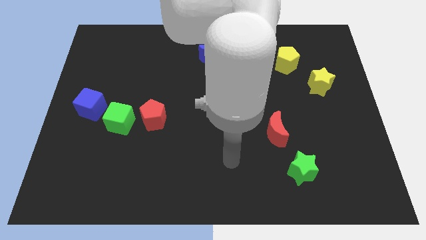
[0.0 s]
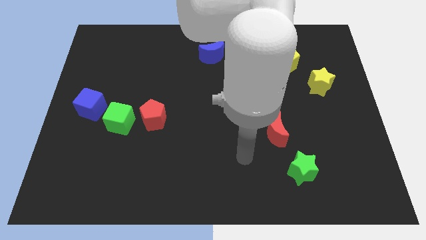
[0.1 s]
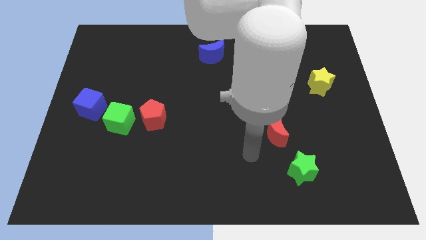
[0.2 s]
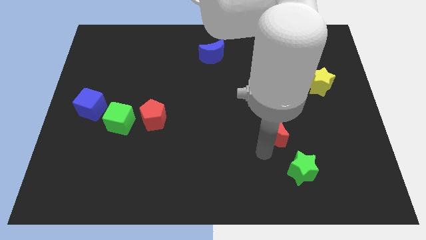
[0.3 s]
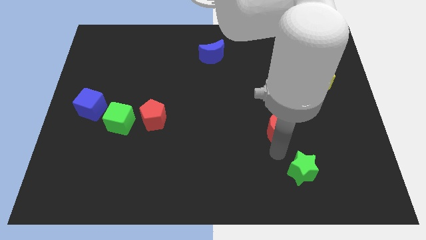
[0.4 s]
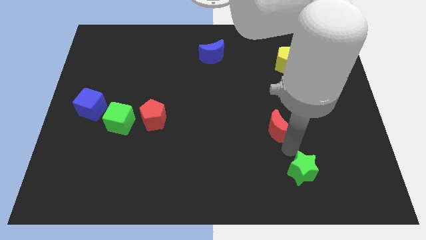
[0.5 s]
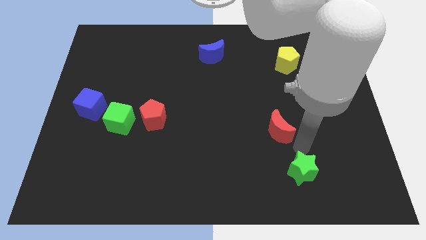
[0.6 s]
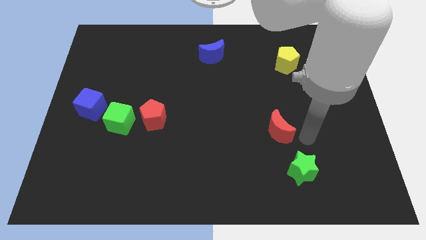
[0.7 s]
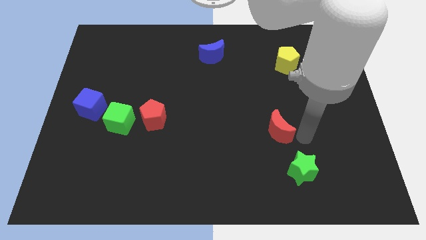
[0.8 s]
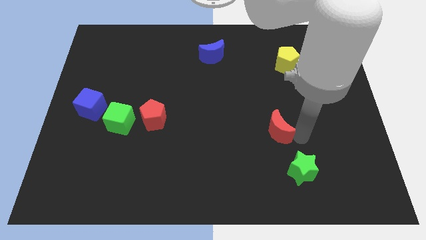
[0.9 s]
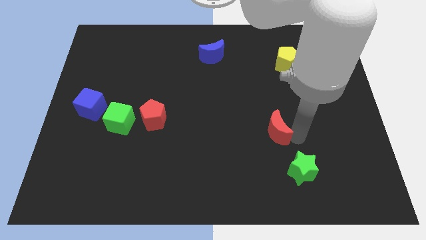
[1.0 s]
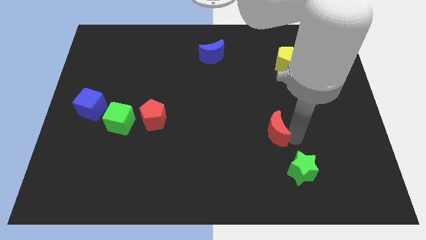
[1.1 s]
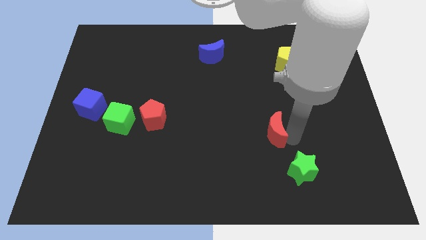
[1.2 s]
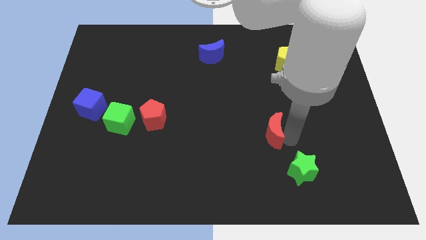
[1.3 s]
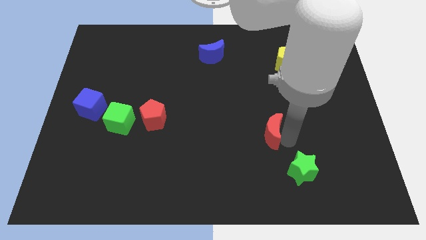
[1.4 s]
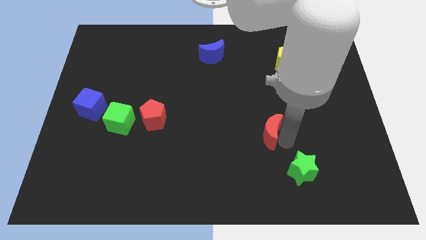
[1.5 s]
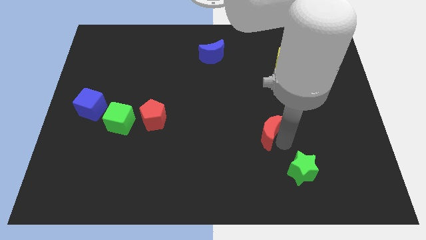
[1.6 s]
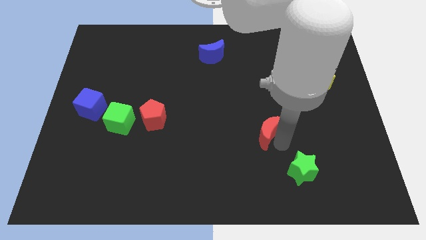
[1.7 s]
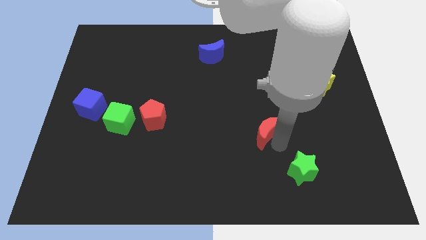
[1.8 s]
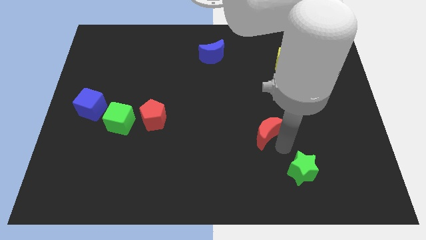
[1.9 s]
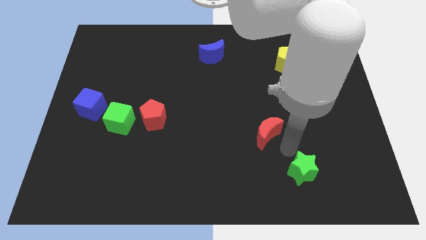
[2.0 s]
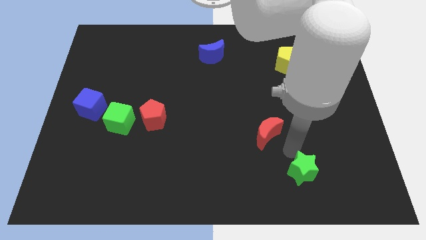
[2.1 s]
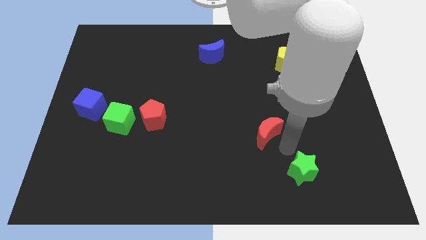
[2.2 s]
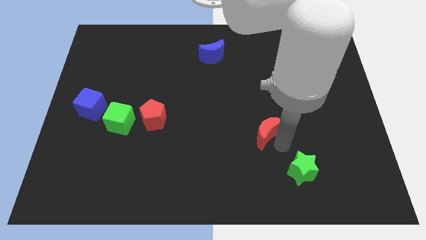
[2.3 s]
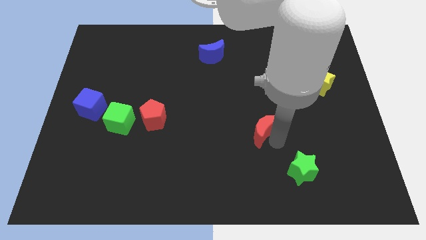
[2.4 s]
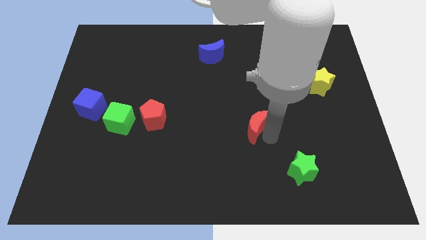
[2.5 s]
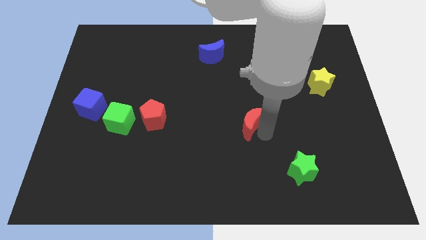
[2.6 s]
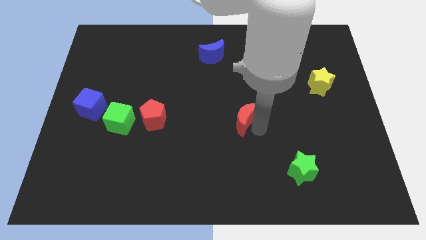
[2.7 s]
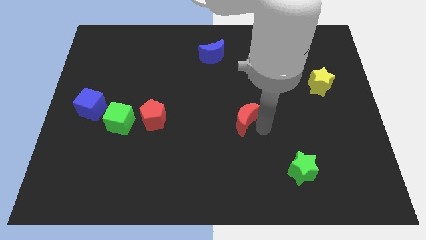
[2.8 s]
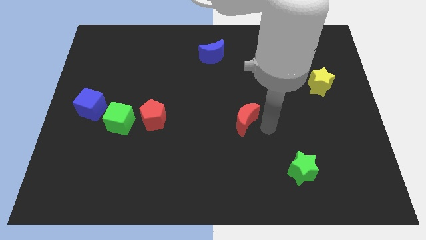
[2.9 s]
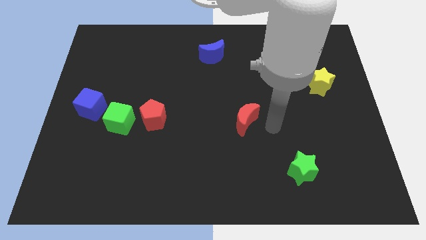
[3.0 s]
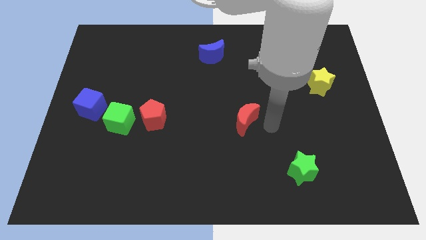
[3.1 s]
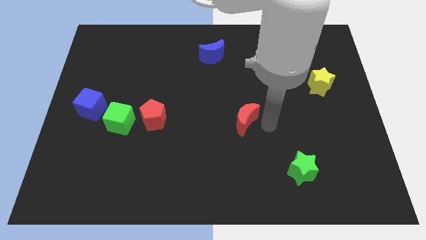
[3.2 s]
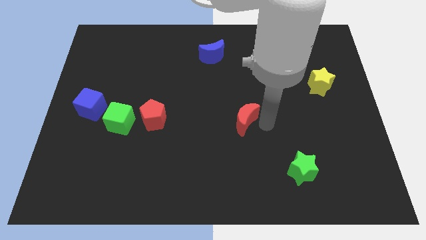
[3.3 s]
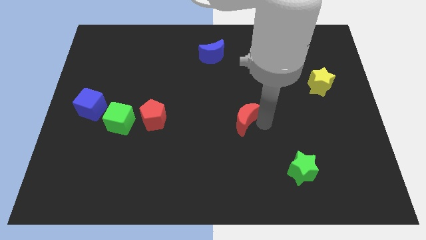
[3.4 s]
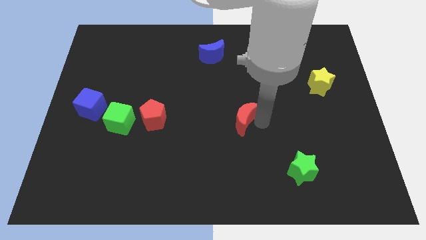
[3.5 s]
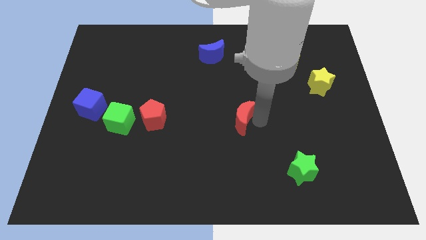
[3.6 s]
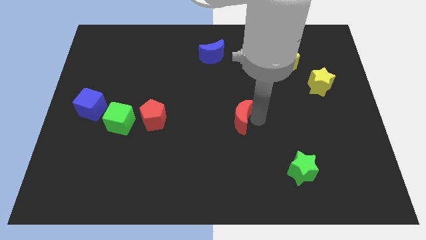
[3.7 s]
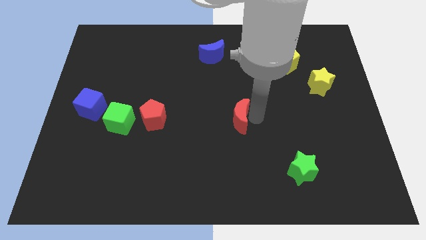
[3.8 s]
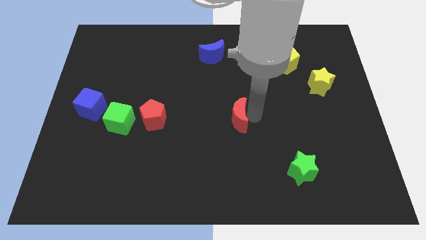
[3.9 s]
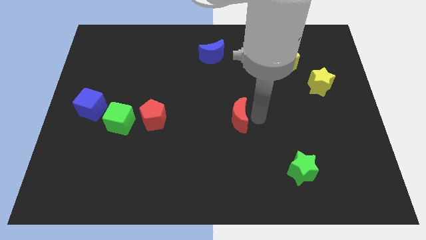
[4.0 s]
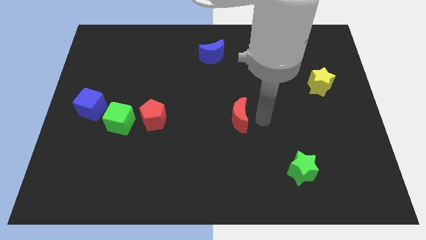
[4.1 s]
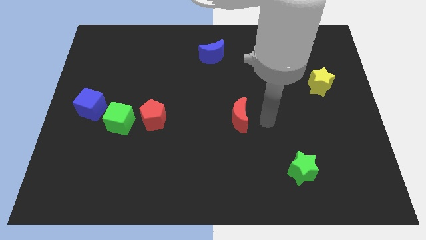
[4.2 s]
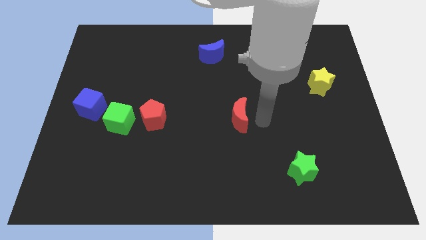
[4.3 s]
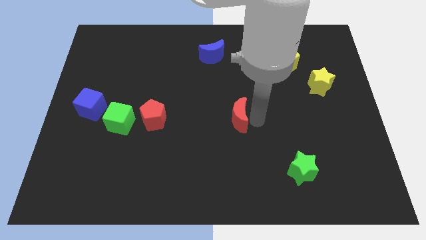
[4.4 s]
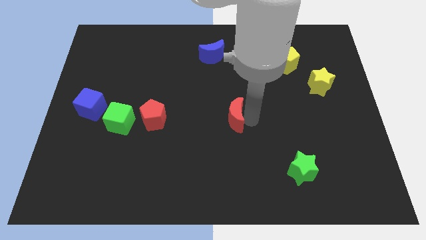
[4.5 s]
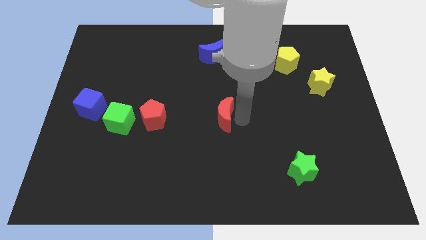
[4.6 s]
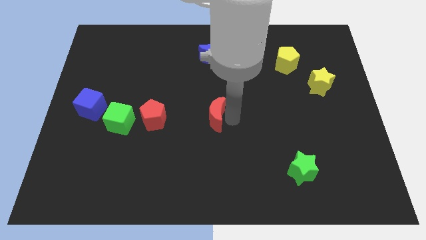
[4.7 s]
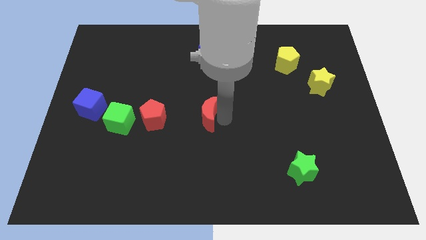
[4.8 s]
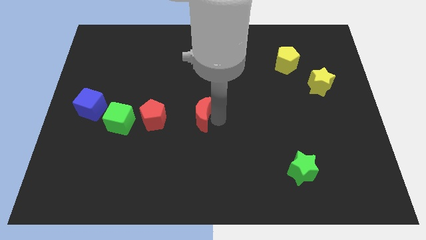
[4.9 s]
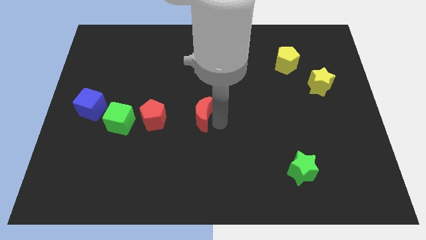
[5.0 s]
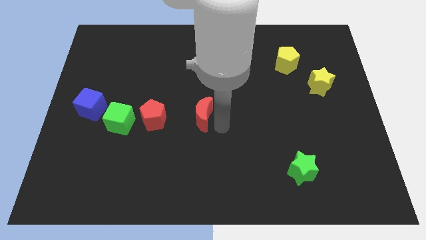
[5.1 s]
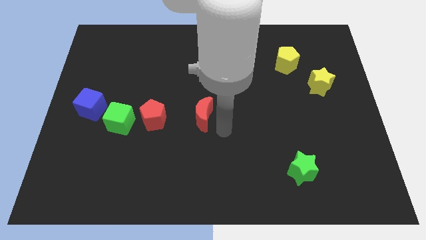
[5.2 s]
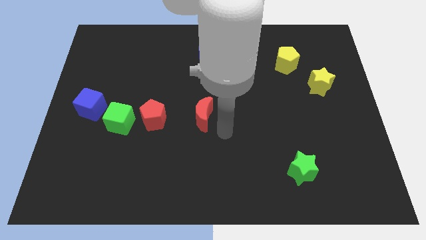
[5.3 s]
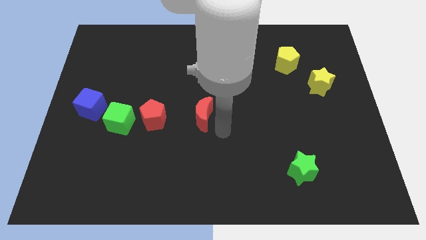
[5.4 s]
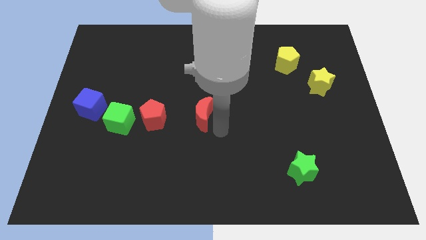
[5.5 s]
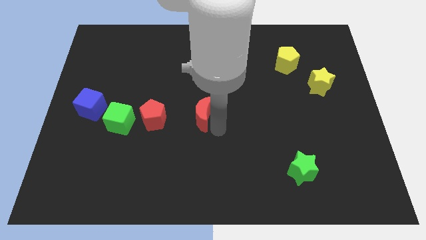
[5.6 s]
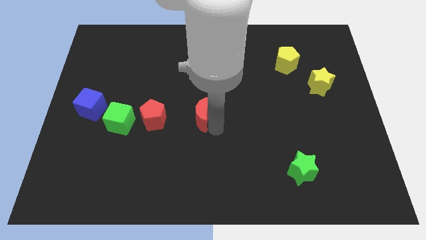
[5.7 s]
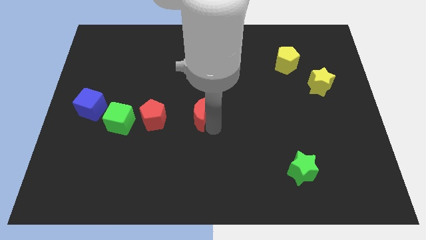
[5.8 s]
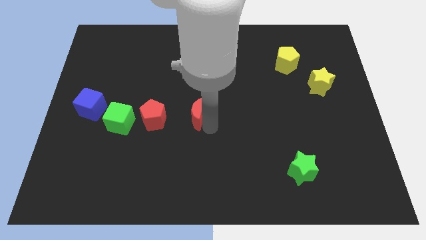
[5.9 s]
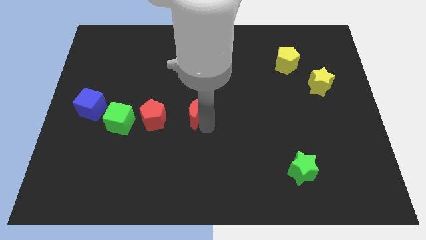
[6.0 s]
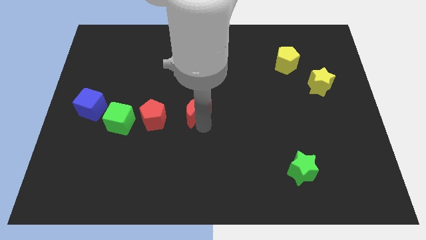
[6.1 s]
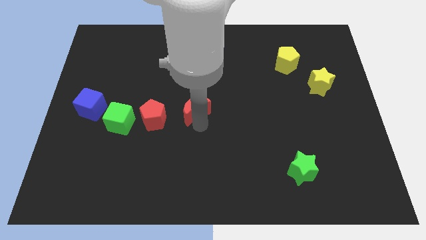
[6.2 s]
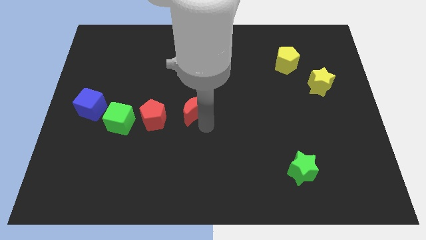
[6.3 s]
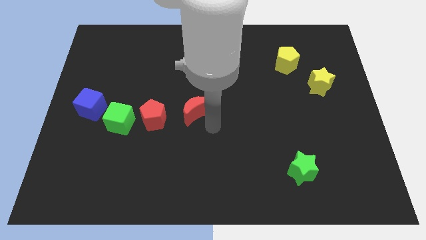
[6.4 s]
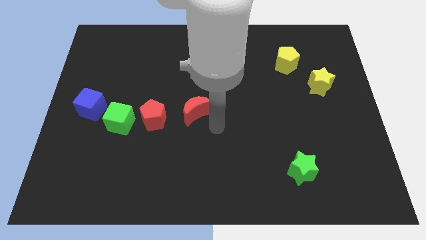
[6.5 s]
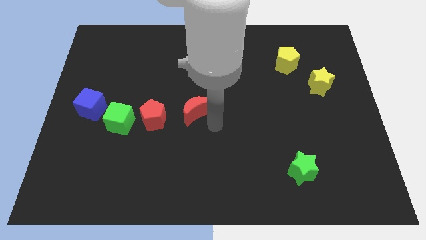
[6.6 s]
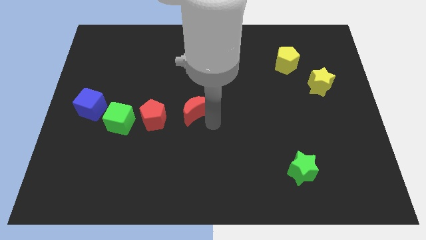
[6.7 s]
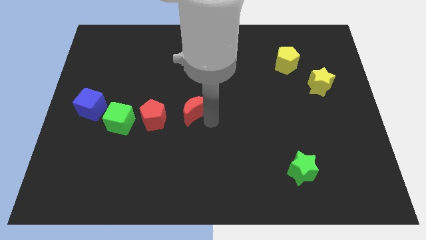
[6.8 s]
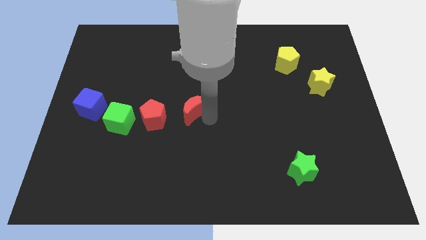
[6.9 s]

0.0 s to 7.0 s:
slide the red moon diagonally up and to the right of the red pentagon

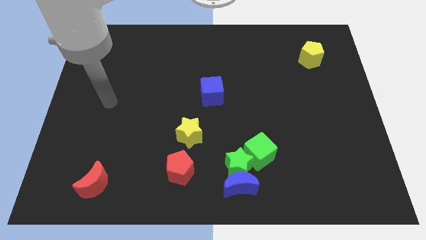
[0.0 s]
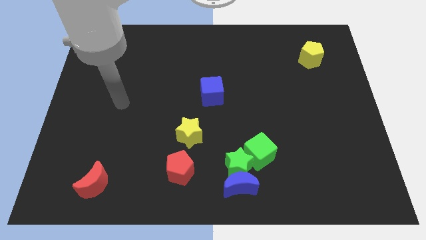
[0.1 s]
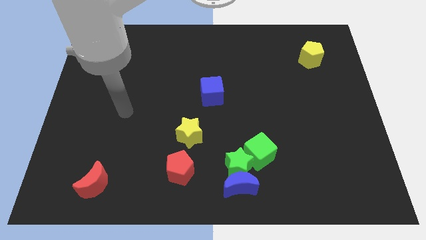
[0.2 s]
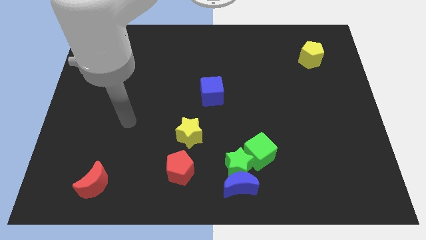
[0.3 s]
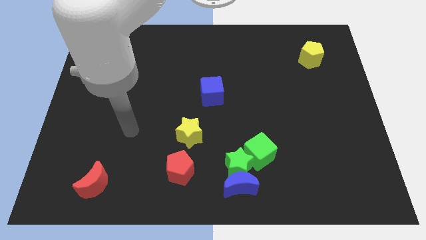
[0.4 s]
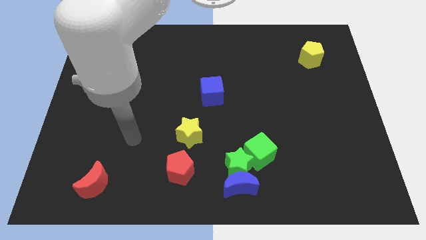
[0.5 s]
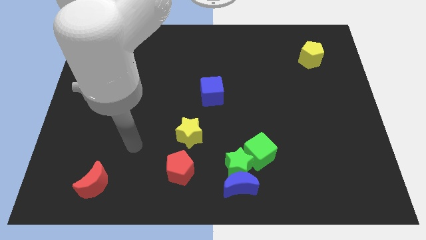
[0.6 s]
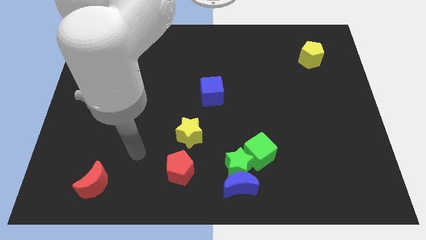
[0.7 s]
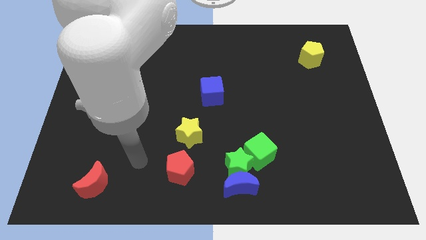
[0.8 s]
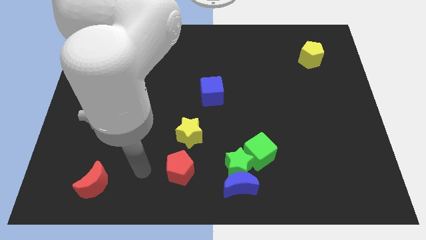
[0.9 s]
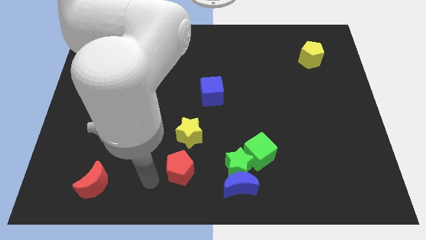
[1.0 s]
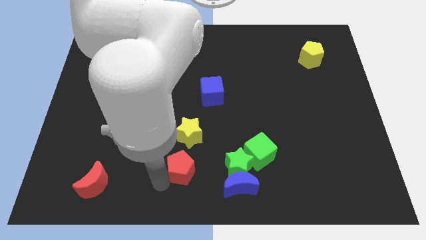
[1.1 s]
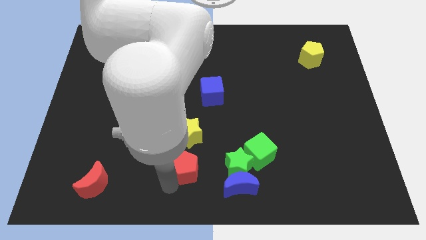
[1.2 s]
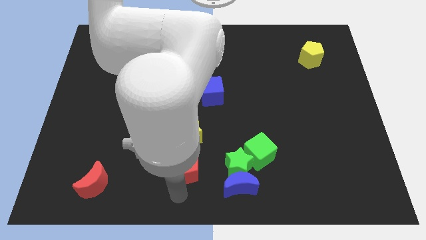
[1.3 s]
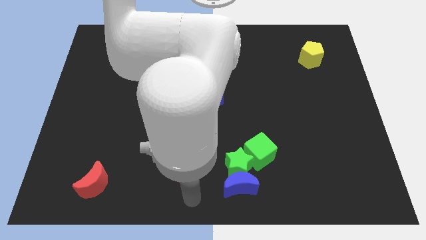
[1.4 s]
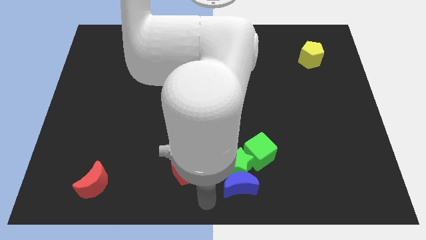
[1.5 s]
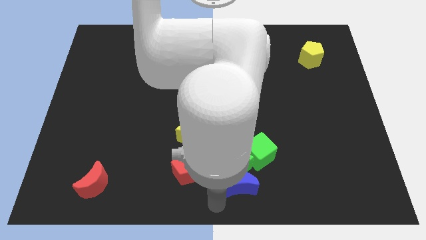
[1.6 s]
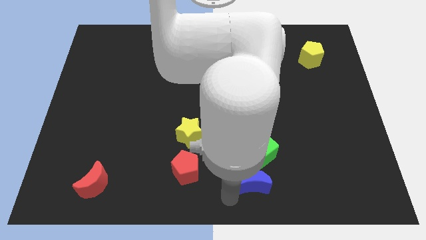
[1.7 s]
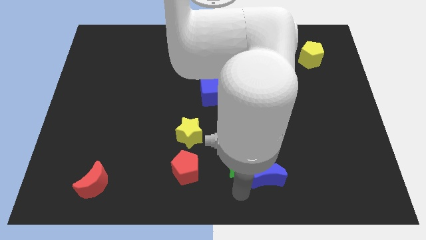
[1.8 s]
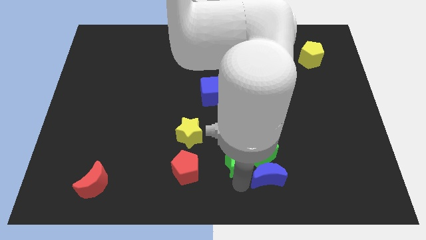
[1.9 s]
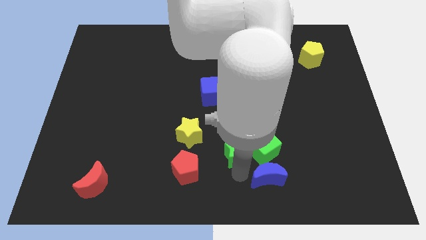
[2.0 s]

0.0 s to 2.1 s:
move the green star to the top left side of the green cube
